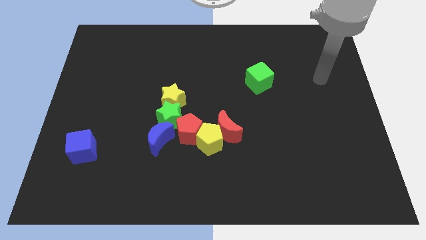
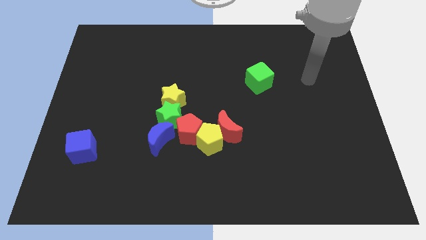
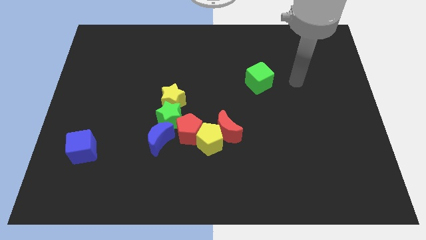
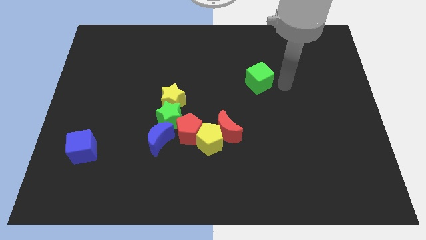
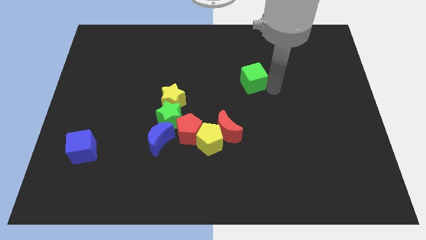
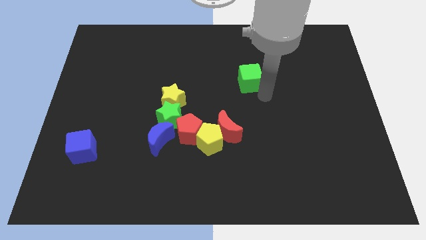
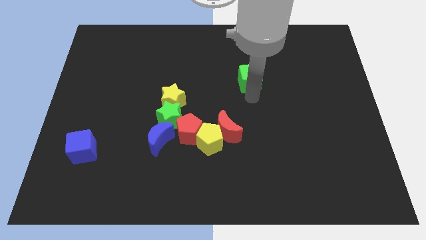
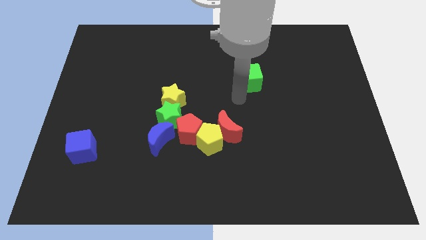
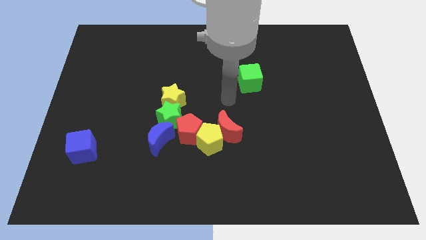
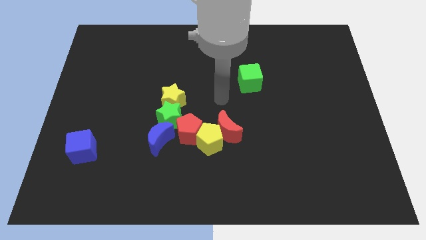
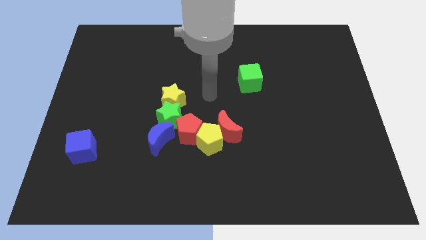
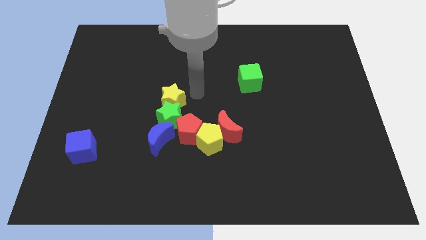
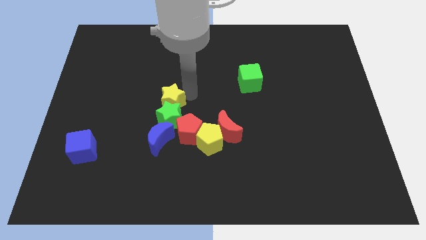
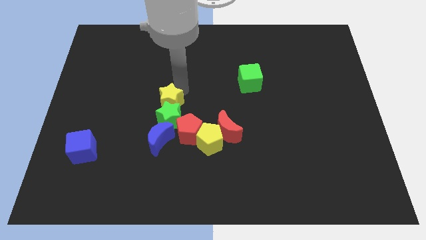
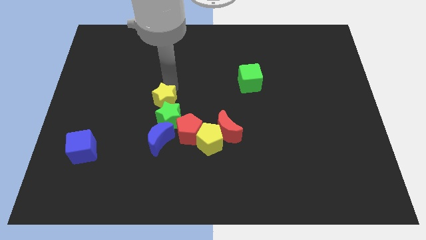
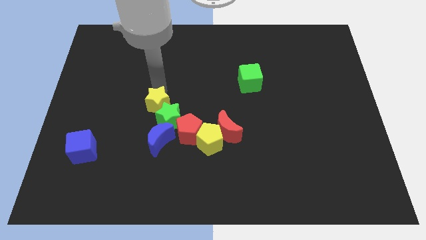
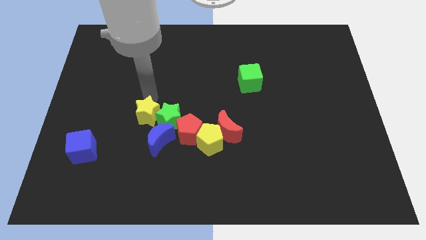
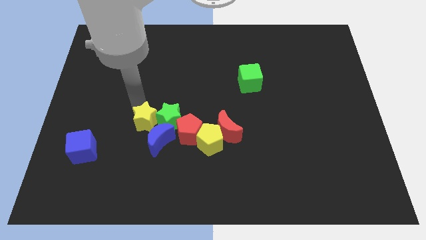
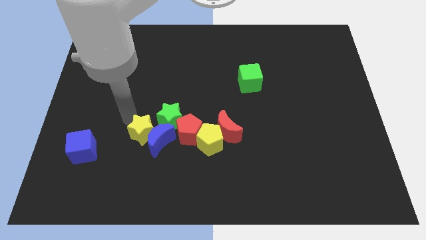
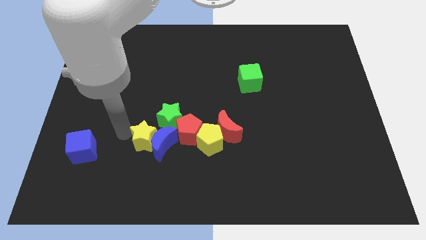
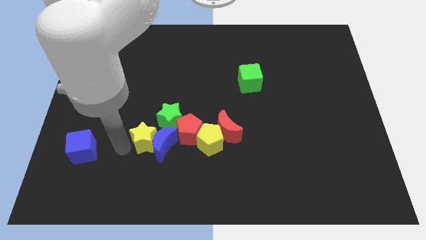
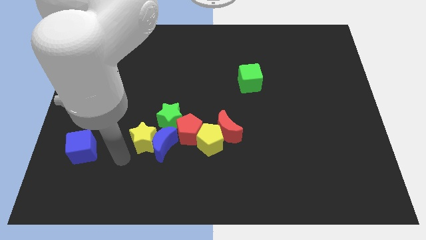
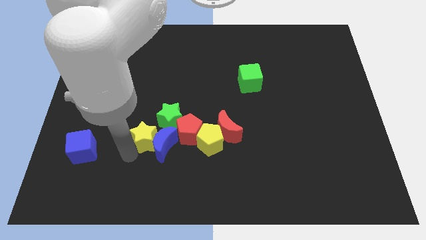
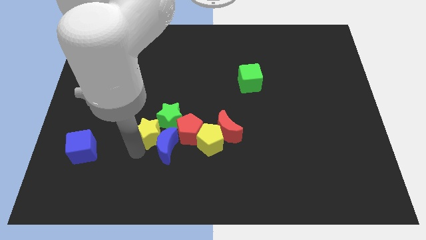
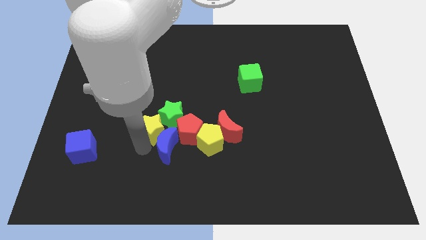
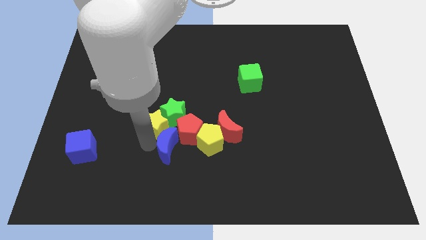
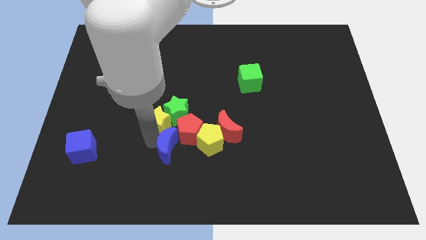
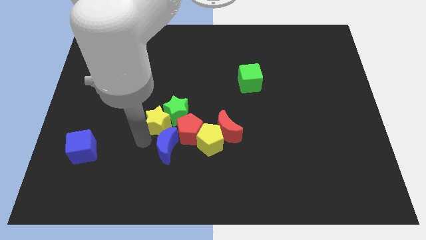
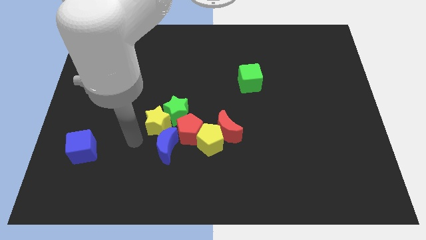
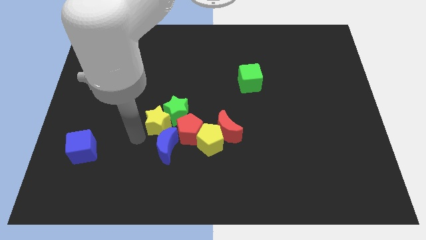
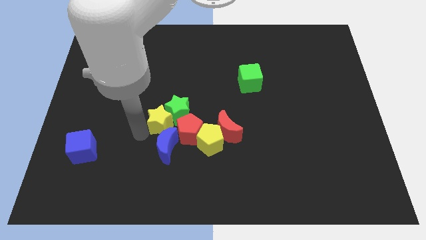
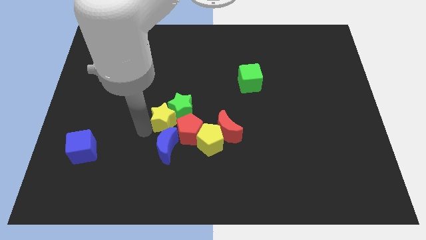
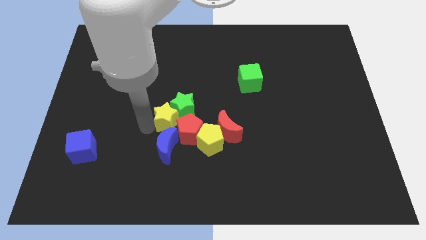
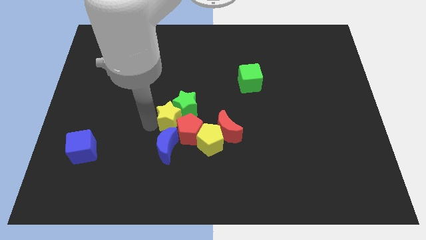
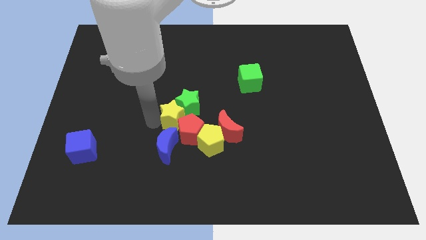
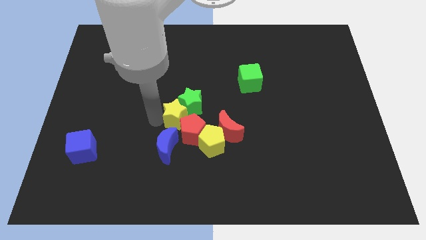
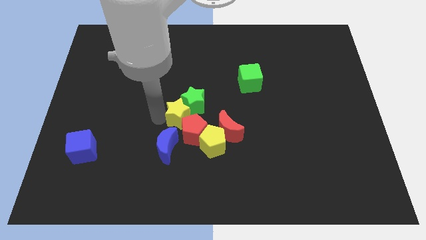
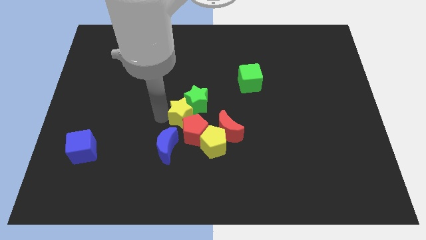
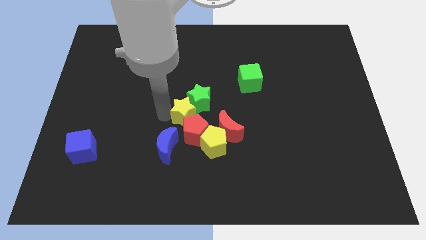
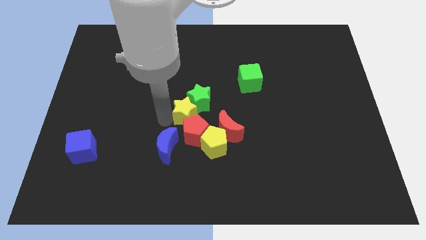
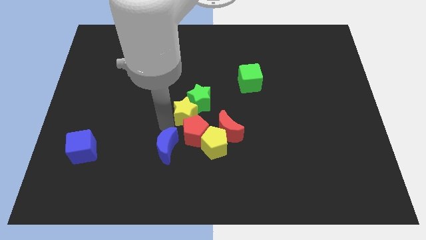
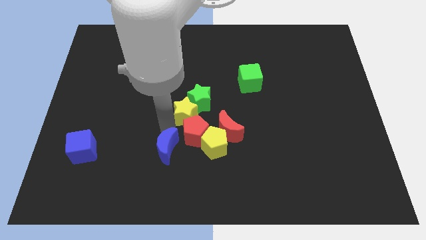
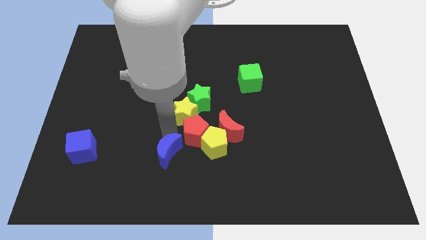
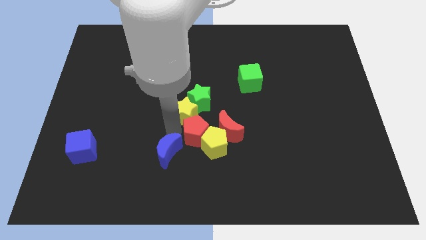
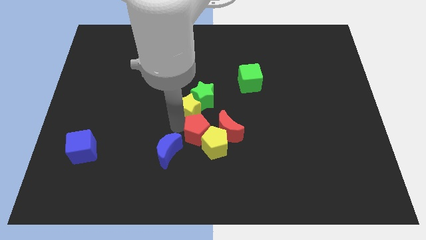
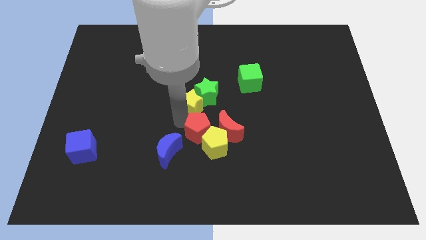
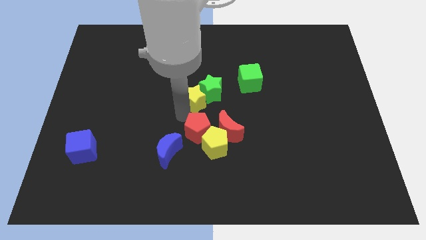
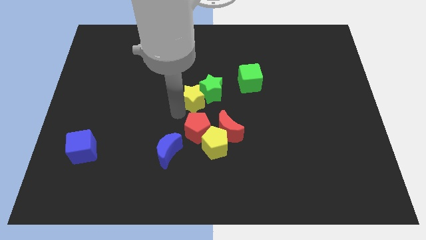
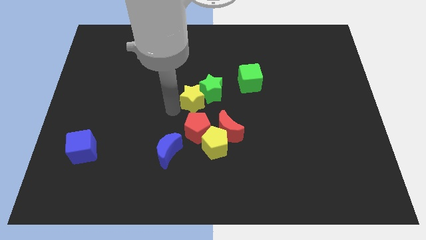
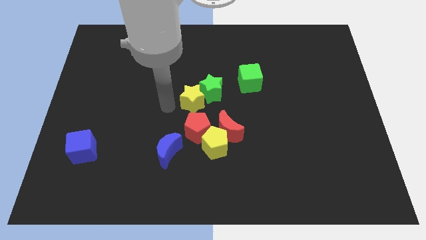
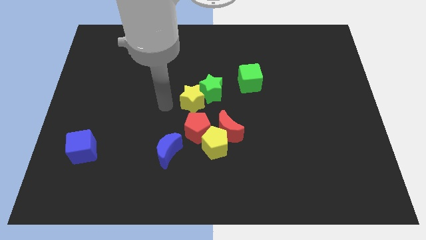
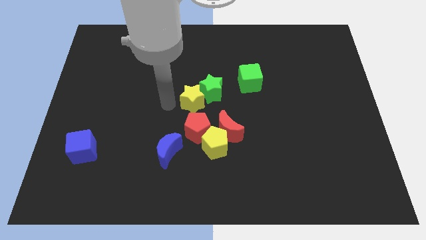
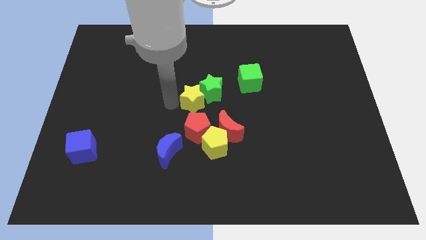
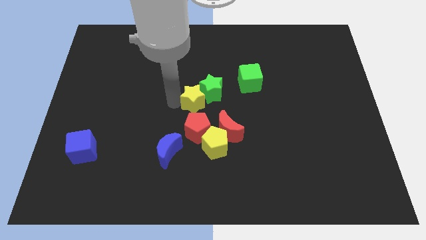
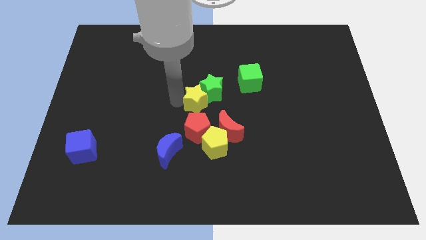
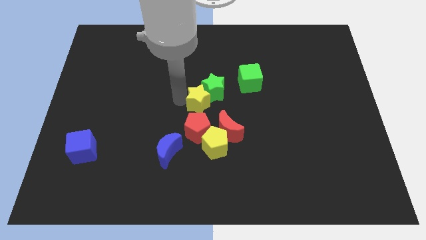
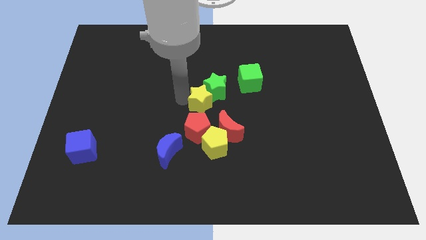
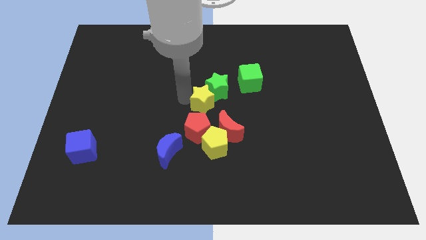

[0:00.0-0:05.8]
push the yellow star somewhat right

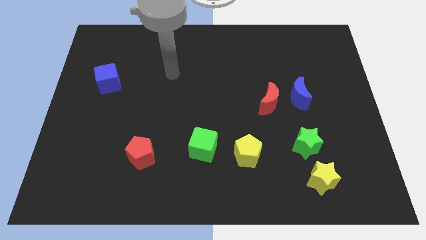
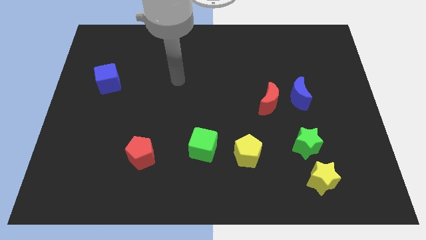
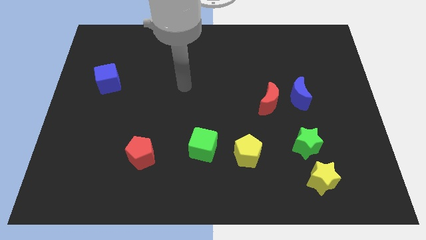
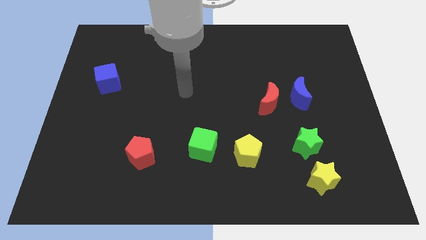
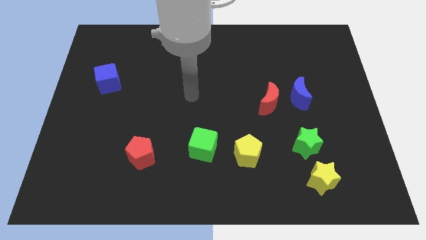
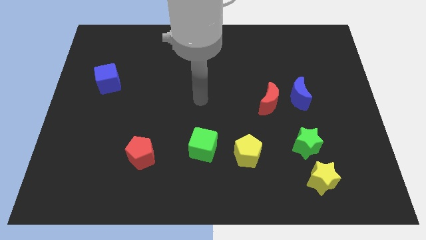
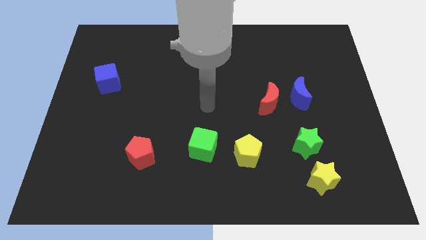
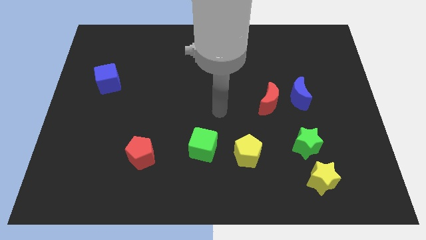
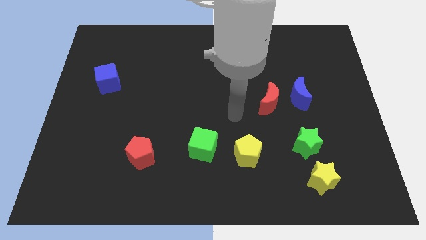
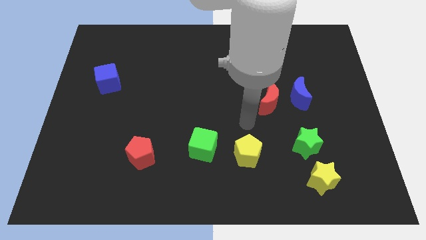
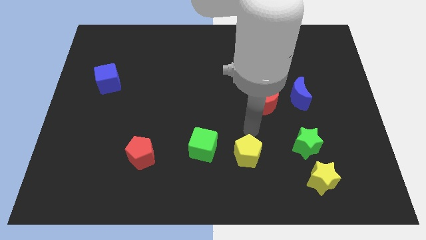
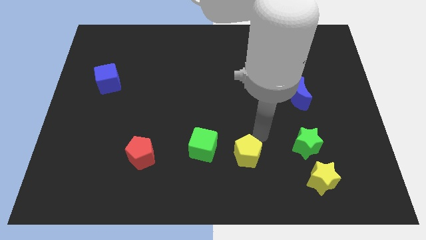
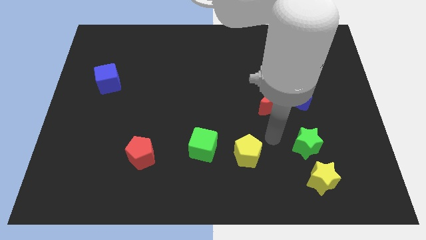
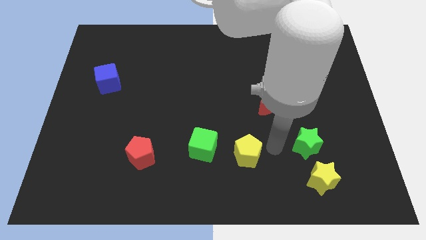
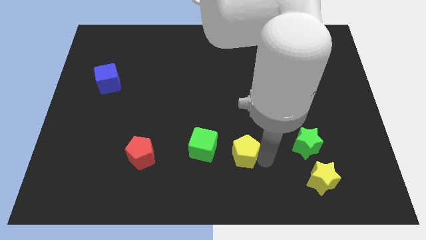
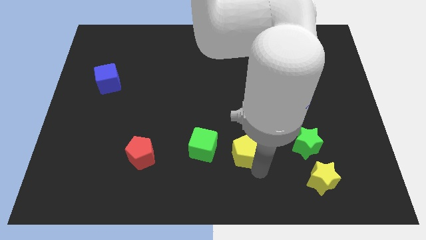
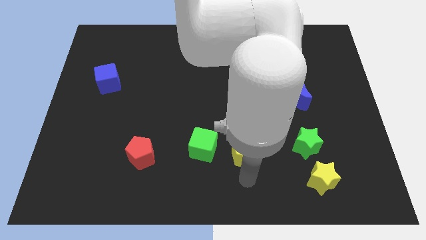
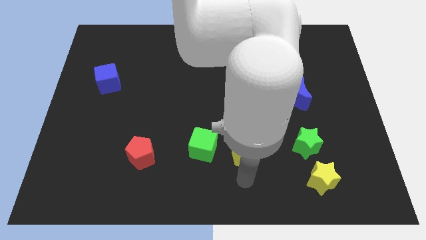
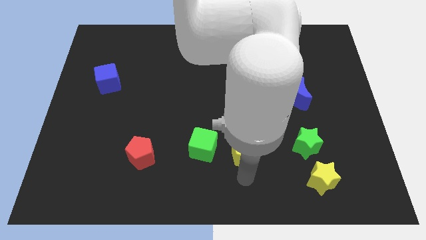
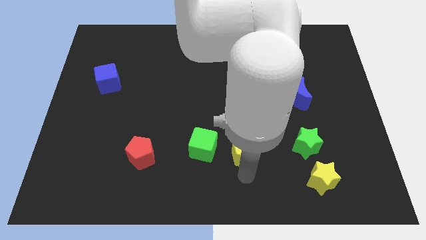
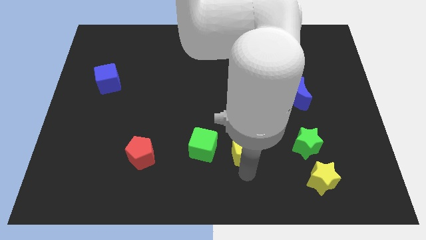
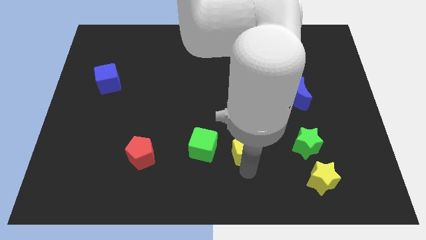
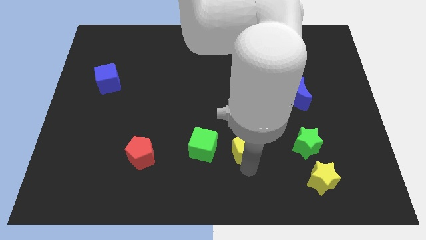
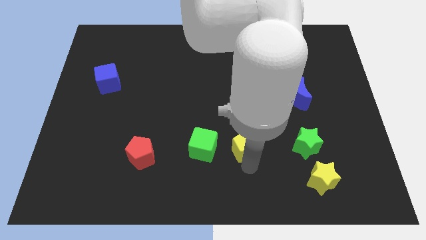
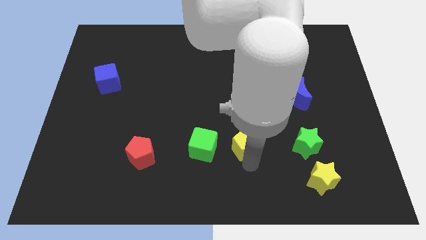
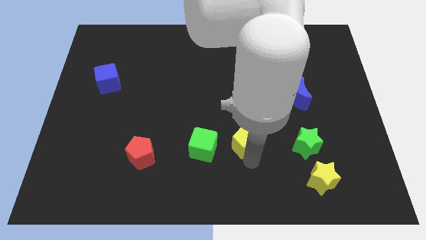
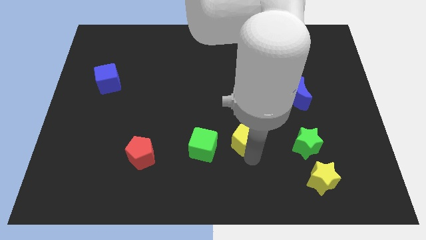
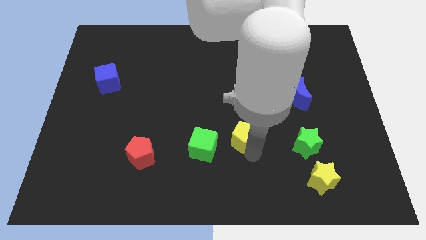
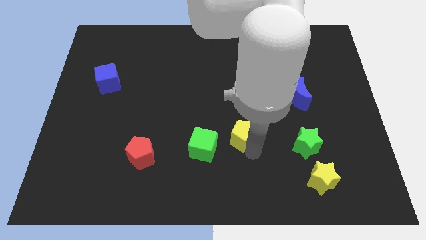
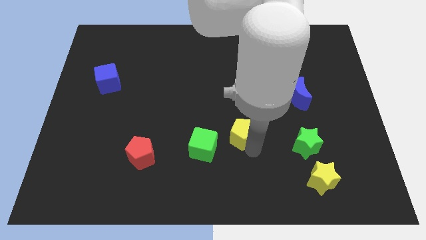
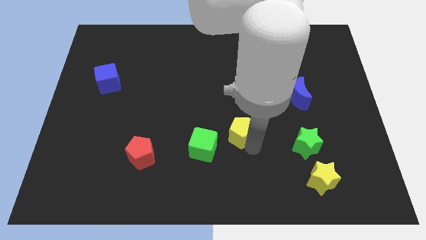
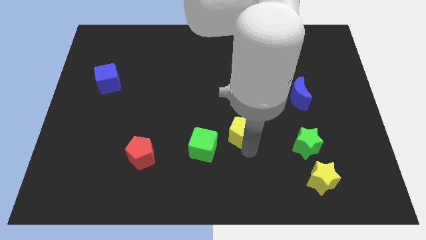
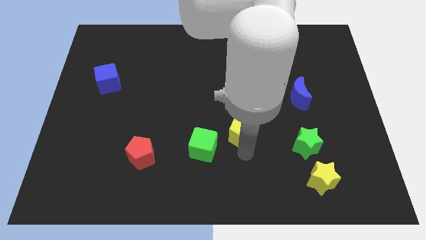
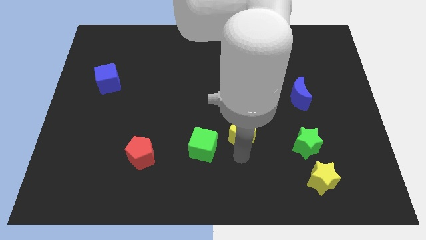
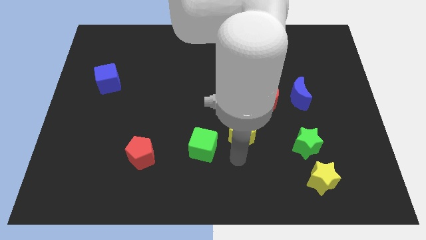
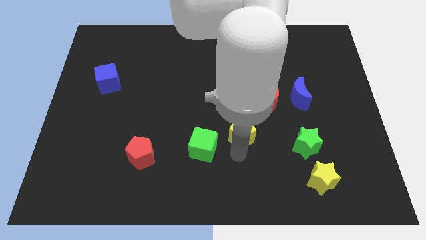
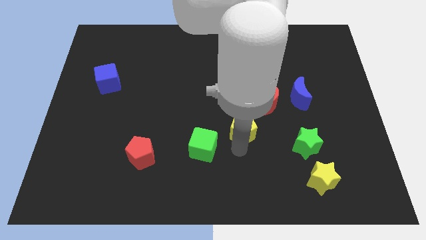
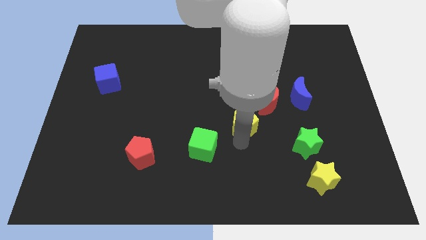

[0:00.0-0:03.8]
move the yellow pentagon up a bit
